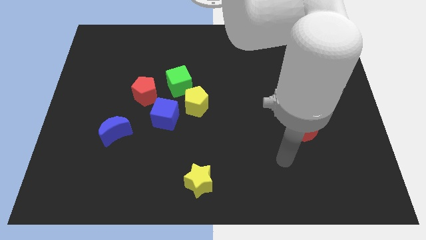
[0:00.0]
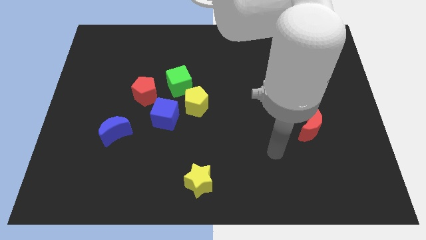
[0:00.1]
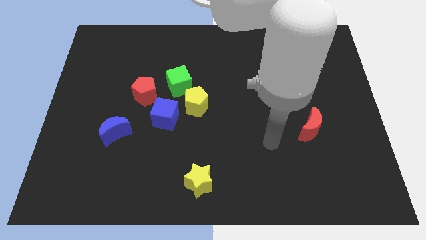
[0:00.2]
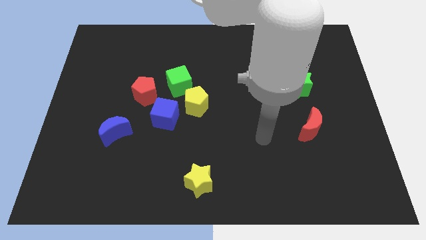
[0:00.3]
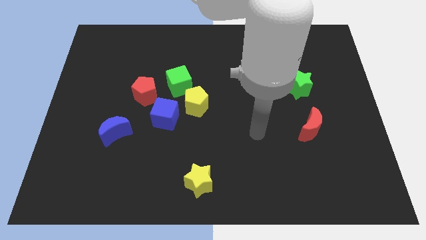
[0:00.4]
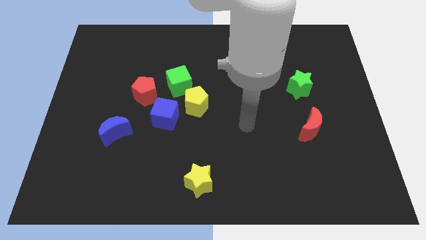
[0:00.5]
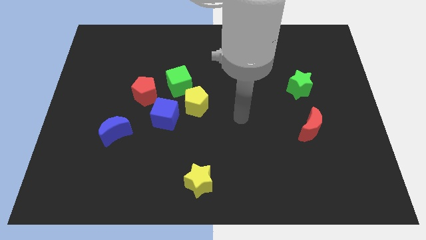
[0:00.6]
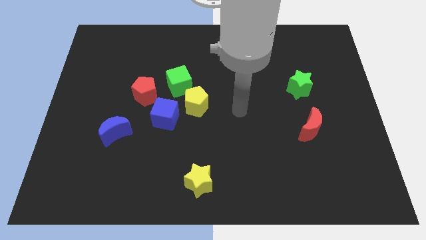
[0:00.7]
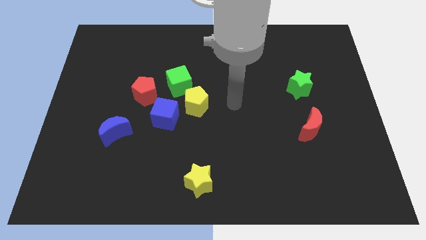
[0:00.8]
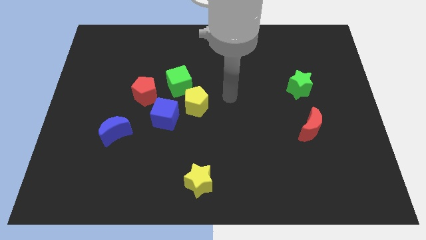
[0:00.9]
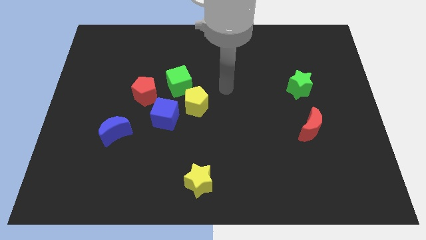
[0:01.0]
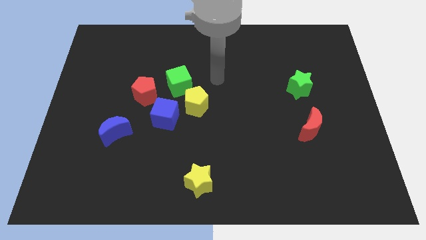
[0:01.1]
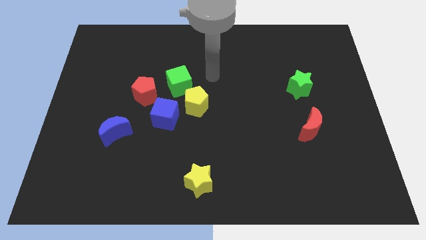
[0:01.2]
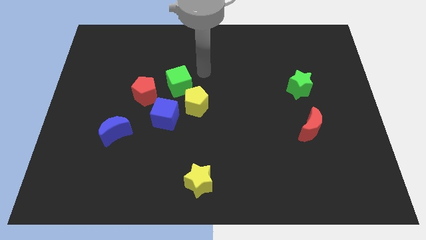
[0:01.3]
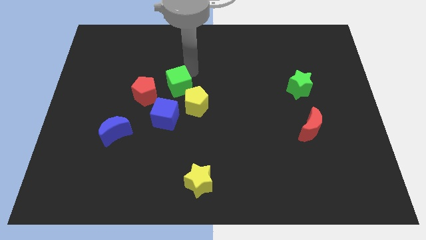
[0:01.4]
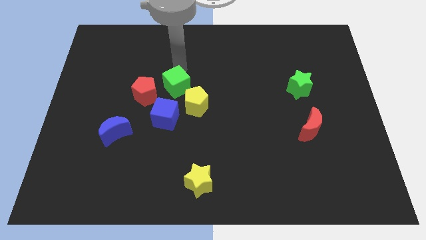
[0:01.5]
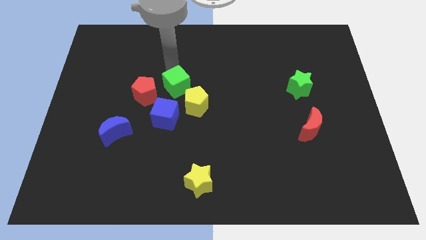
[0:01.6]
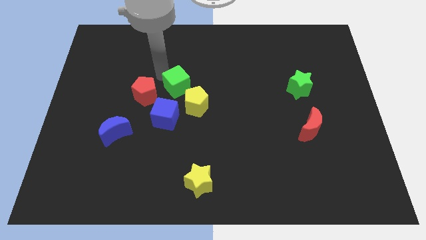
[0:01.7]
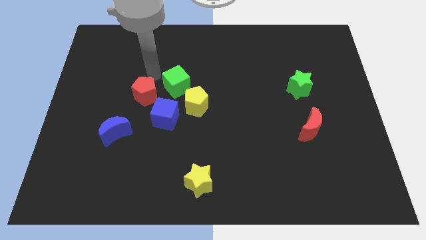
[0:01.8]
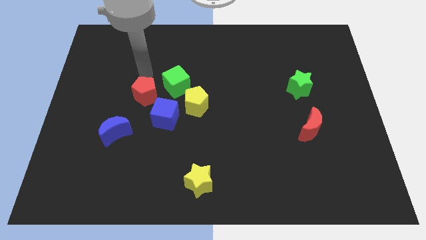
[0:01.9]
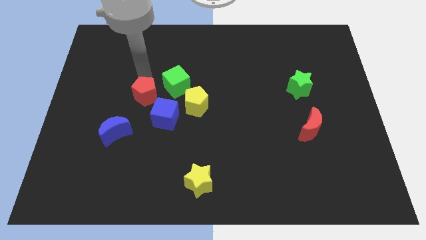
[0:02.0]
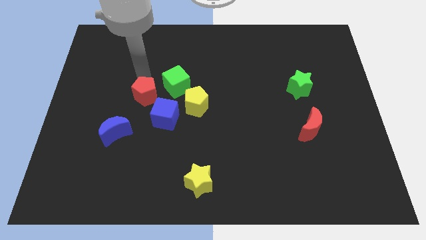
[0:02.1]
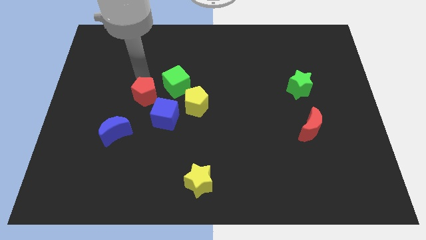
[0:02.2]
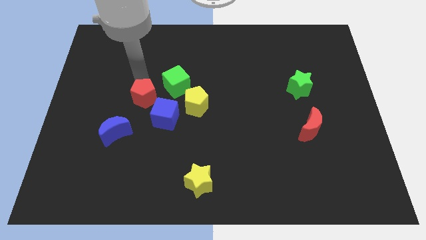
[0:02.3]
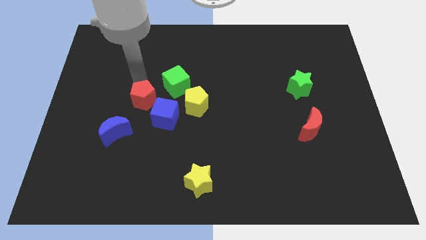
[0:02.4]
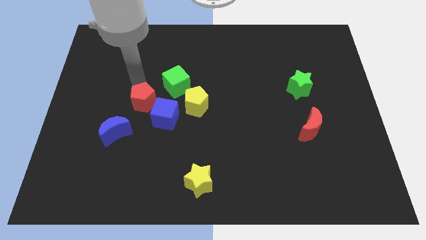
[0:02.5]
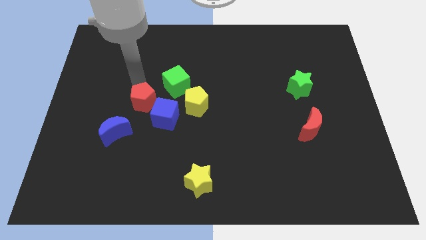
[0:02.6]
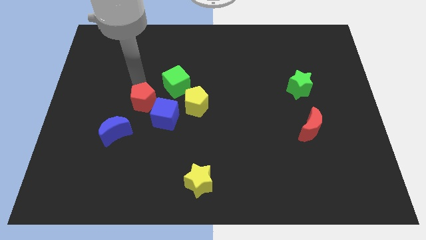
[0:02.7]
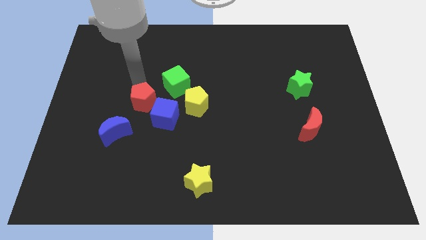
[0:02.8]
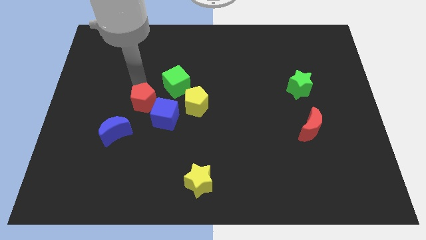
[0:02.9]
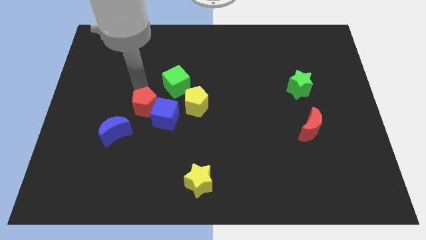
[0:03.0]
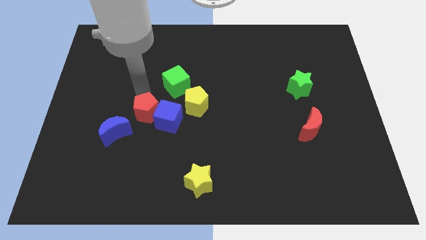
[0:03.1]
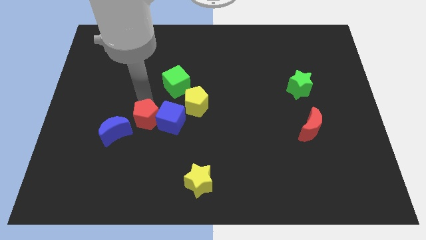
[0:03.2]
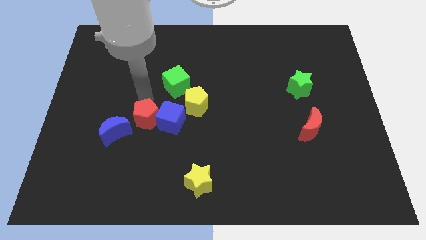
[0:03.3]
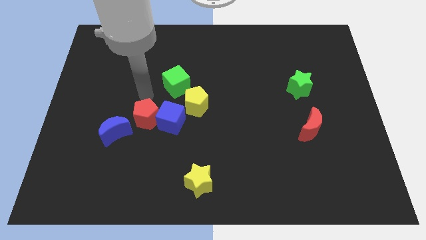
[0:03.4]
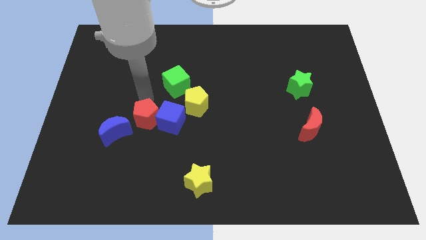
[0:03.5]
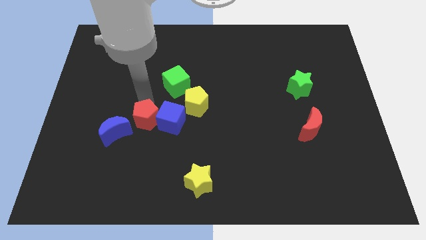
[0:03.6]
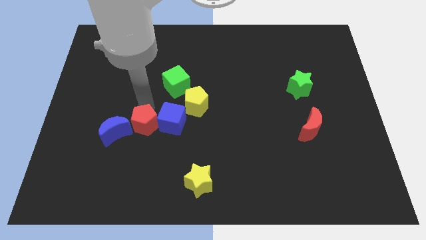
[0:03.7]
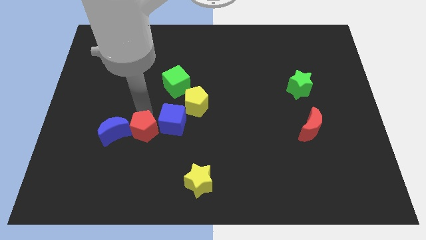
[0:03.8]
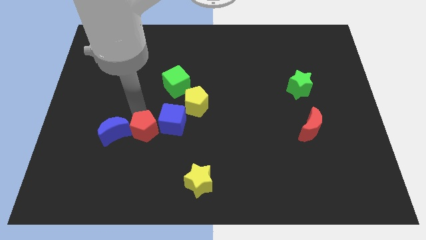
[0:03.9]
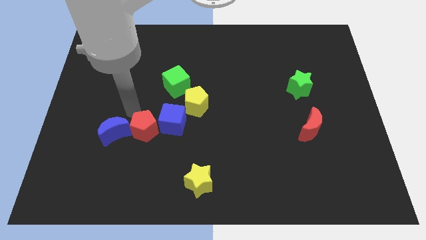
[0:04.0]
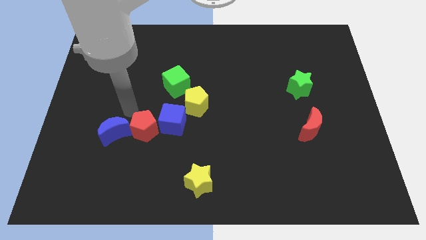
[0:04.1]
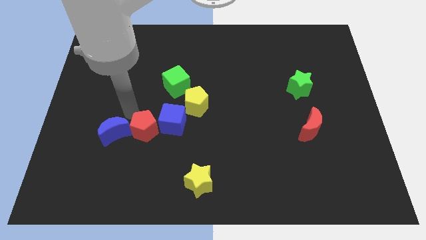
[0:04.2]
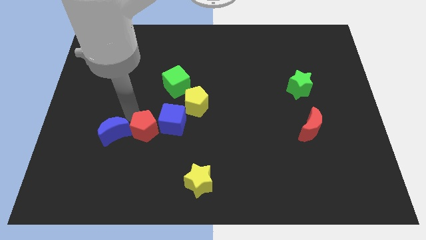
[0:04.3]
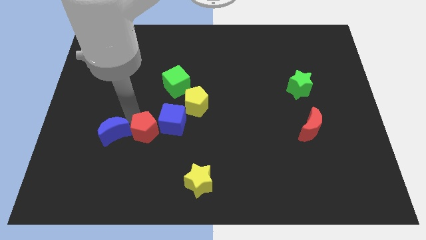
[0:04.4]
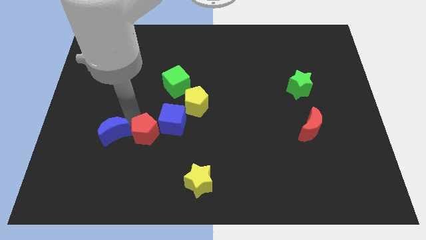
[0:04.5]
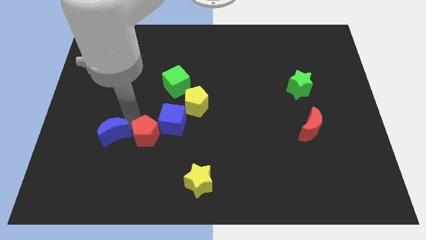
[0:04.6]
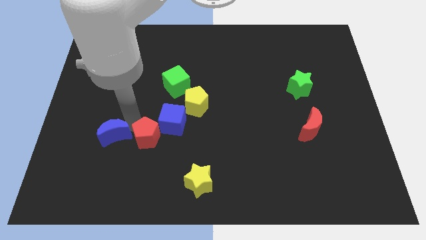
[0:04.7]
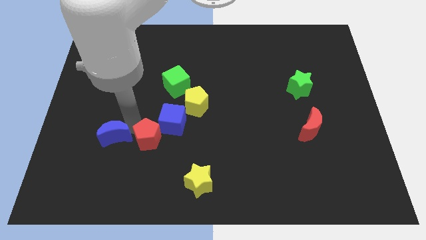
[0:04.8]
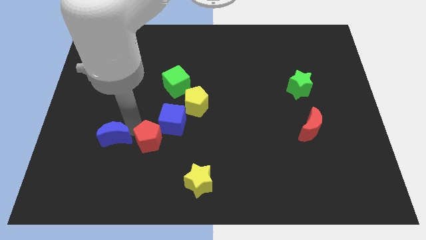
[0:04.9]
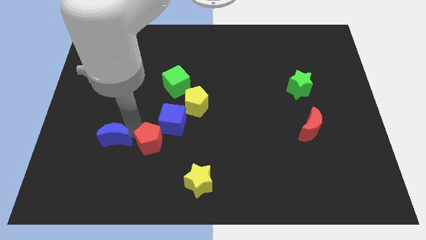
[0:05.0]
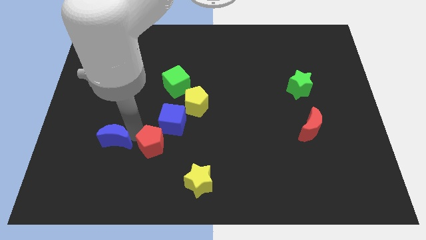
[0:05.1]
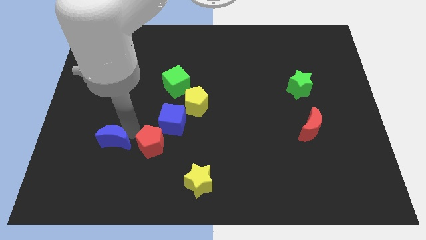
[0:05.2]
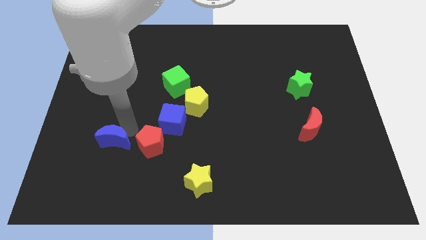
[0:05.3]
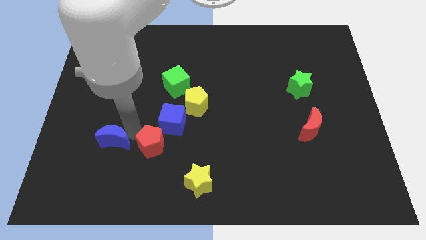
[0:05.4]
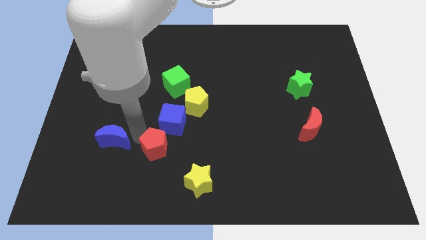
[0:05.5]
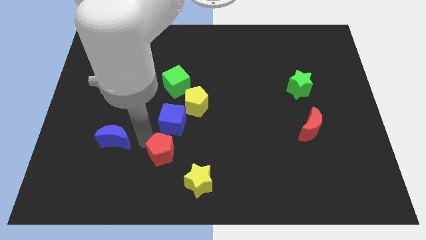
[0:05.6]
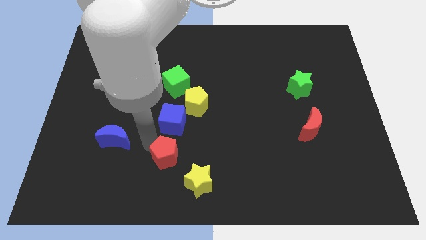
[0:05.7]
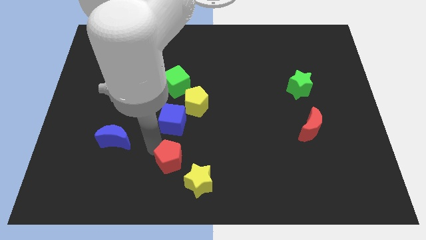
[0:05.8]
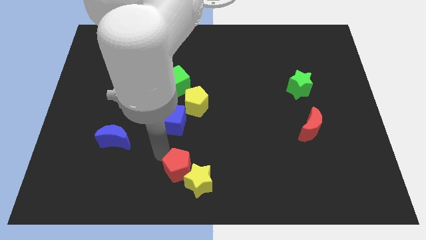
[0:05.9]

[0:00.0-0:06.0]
push the red pentagon next to the yellow star

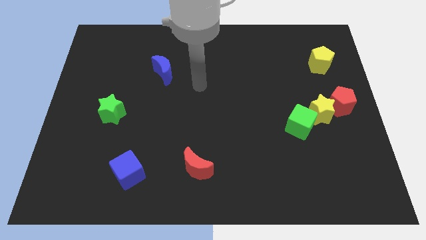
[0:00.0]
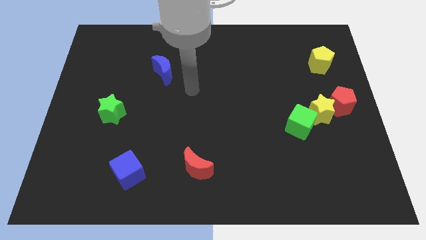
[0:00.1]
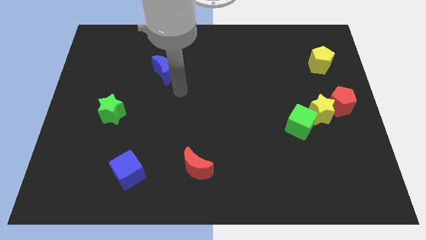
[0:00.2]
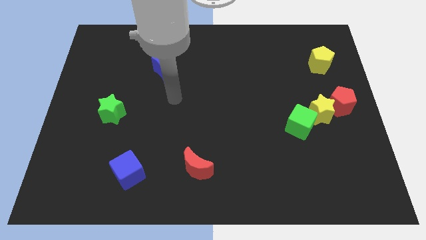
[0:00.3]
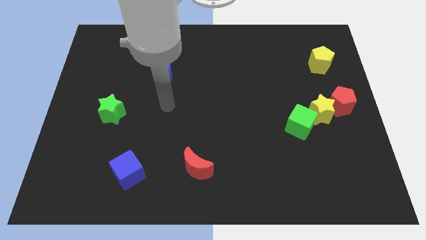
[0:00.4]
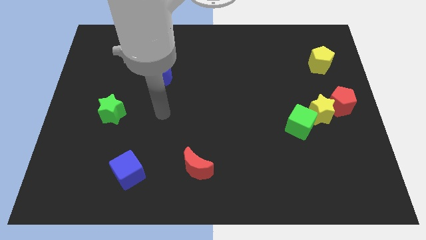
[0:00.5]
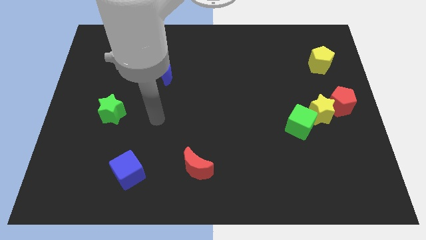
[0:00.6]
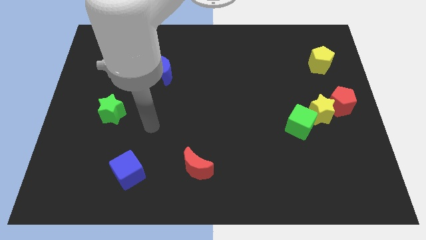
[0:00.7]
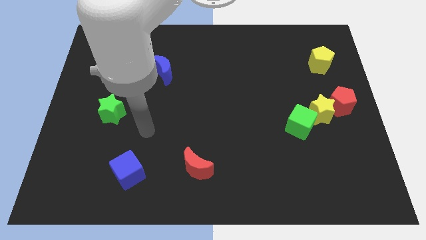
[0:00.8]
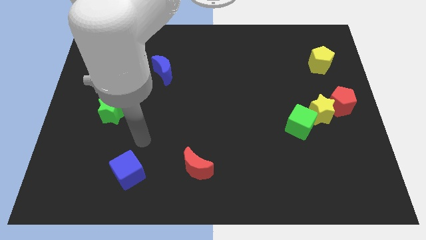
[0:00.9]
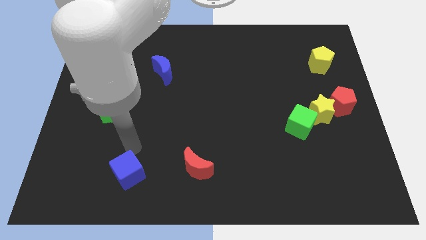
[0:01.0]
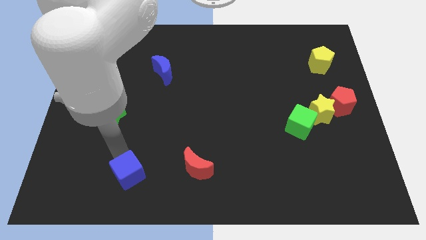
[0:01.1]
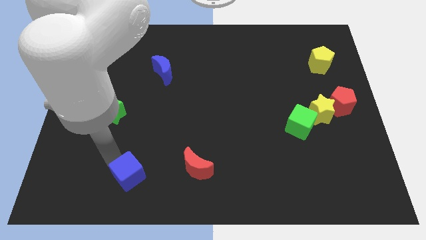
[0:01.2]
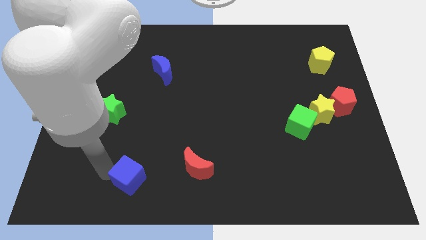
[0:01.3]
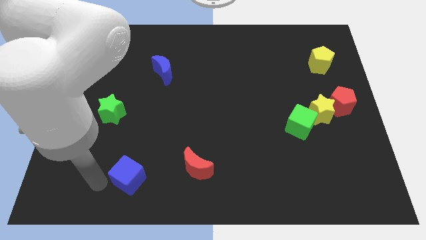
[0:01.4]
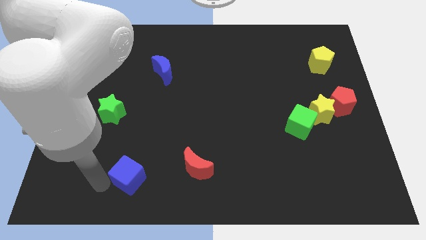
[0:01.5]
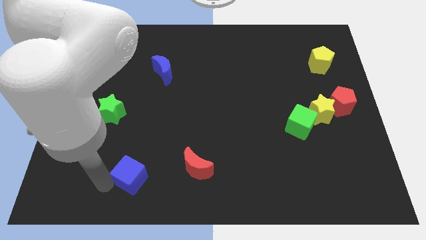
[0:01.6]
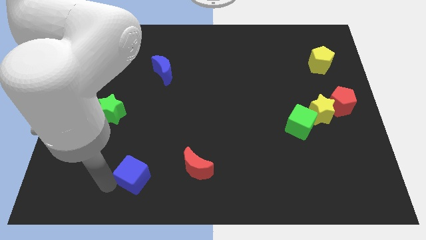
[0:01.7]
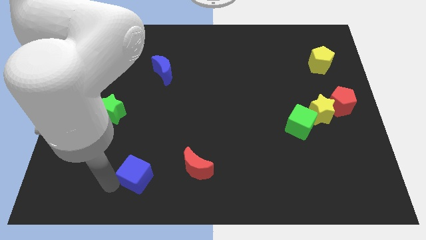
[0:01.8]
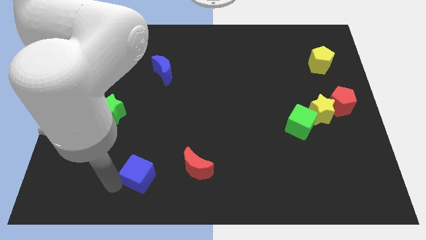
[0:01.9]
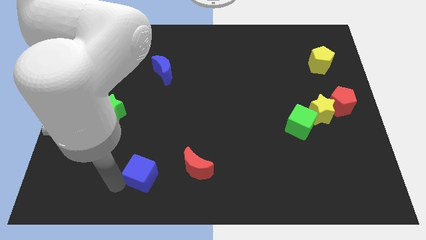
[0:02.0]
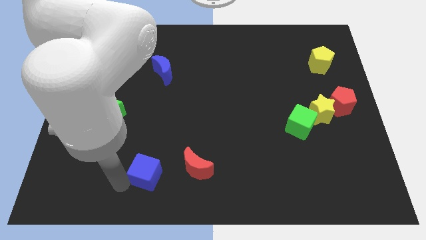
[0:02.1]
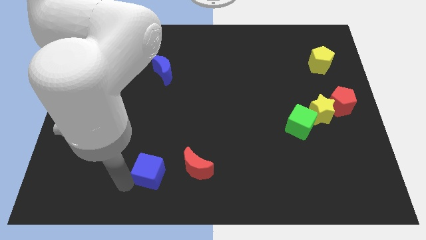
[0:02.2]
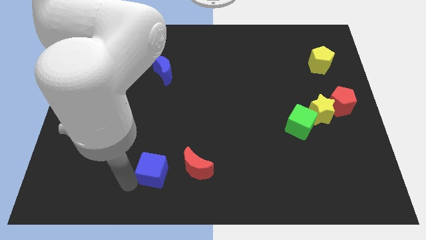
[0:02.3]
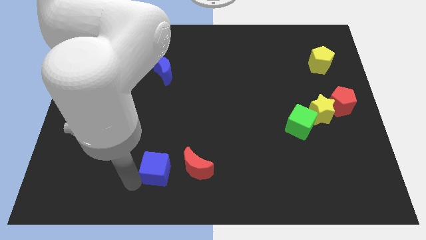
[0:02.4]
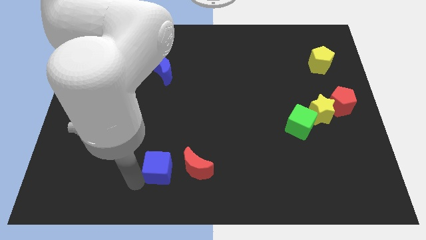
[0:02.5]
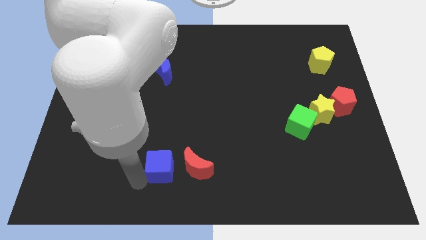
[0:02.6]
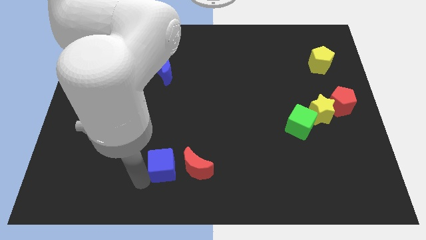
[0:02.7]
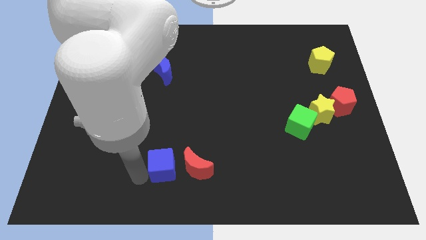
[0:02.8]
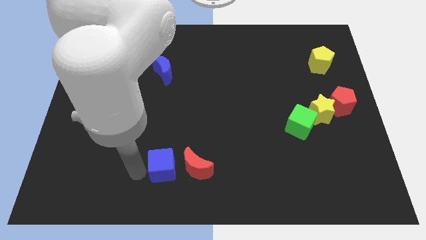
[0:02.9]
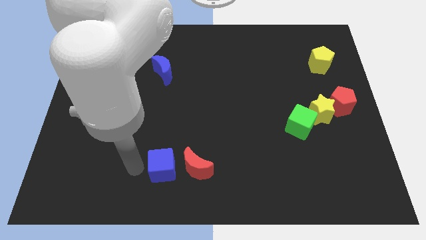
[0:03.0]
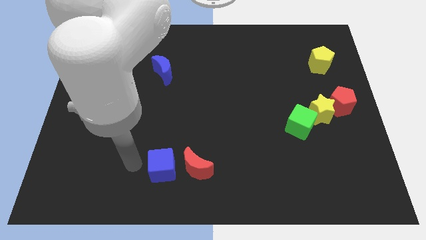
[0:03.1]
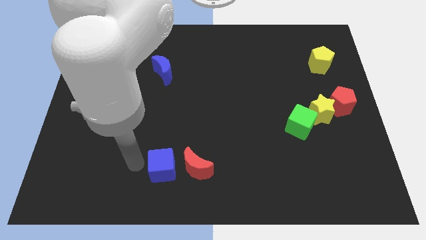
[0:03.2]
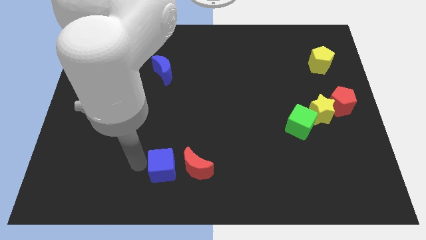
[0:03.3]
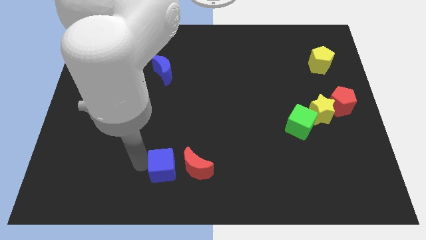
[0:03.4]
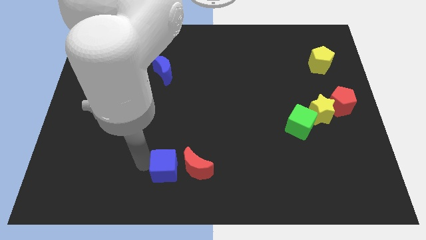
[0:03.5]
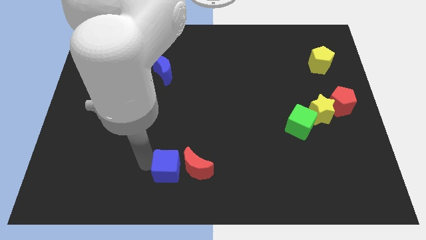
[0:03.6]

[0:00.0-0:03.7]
move the blue cube towards the red moon
